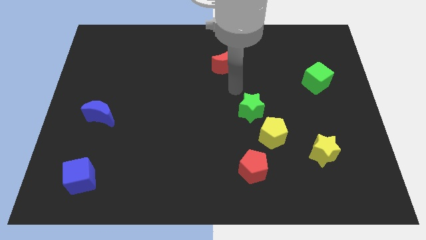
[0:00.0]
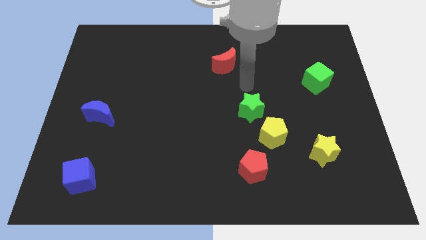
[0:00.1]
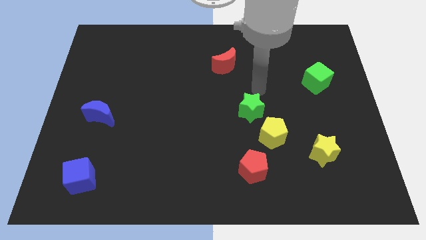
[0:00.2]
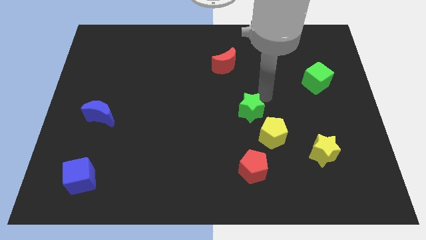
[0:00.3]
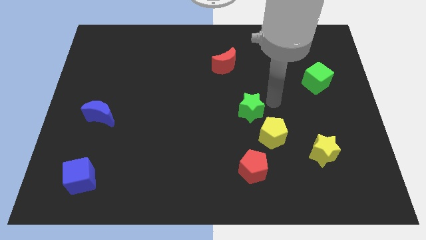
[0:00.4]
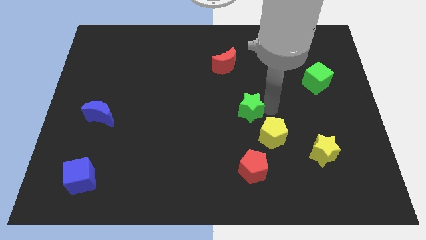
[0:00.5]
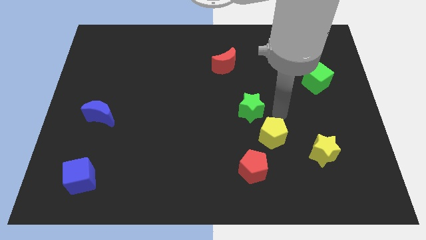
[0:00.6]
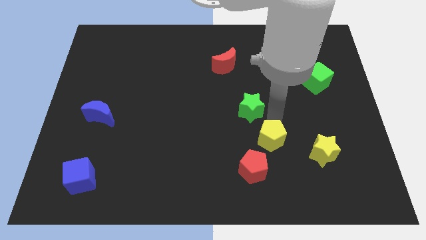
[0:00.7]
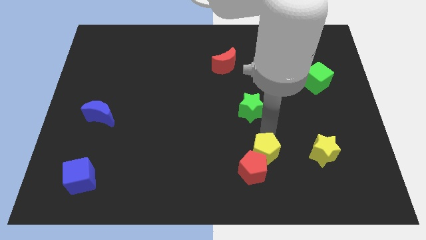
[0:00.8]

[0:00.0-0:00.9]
pull the green star apart from the yellow pentagon

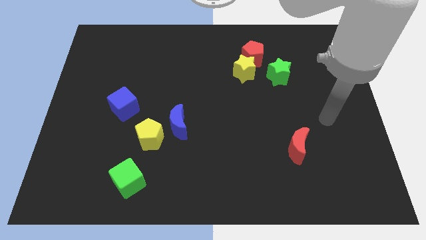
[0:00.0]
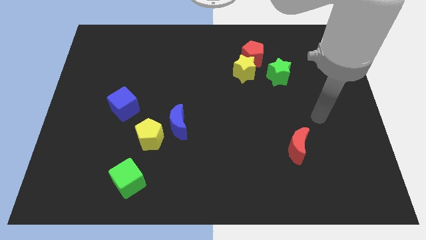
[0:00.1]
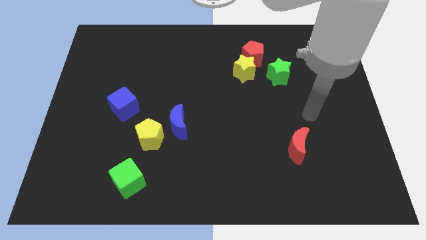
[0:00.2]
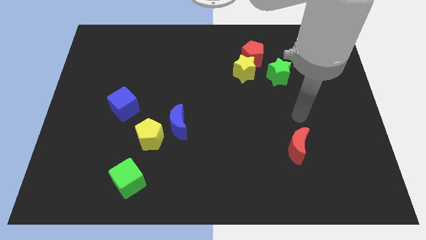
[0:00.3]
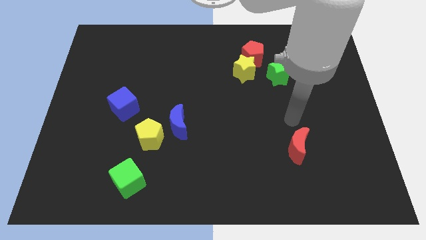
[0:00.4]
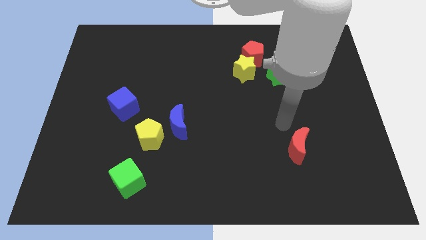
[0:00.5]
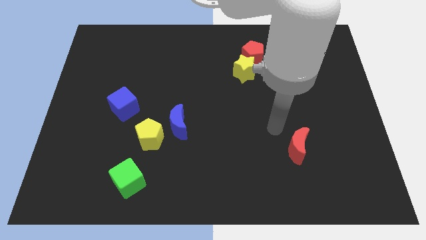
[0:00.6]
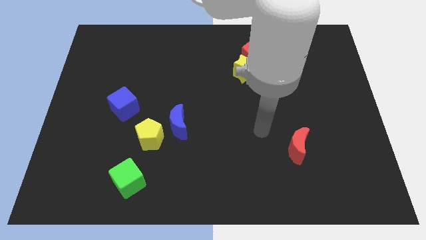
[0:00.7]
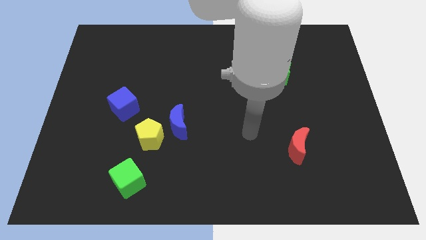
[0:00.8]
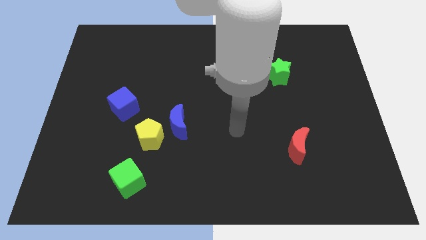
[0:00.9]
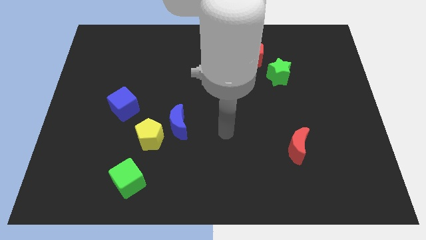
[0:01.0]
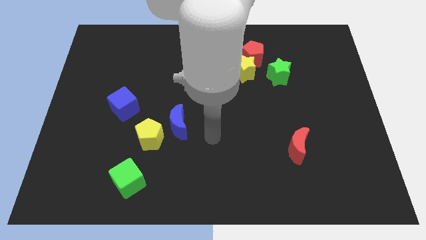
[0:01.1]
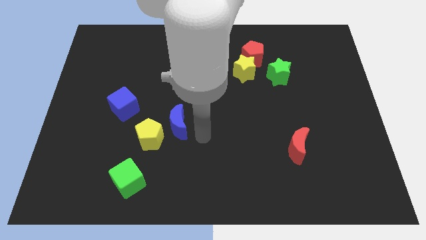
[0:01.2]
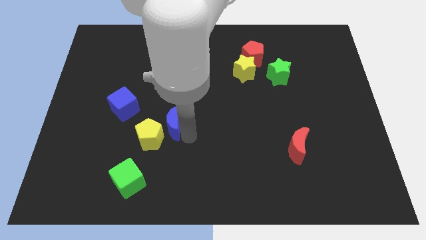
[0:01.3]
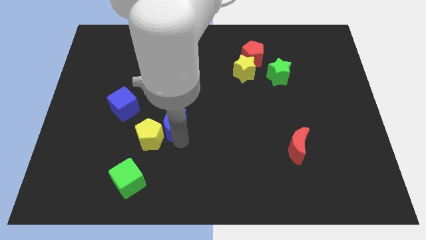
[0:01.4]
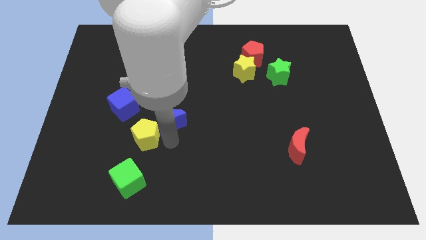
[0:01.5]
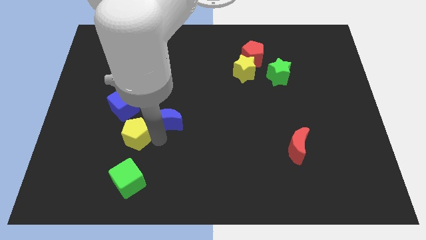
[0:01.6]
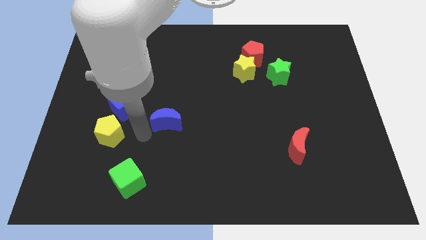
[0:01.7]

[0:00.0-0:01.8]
pull the blue moon apart from the yellow pentagon

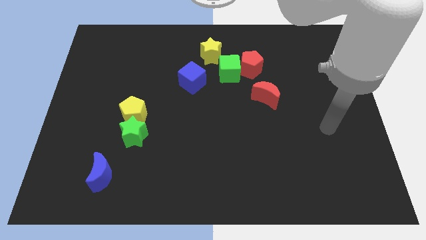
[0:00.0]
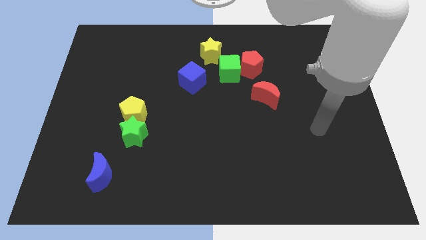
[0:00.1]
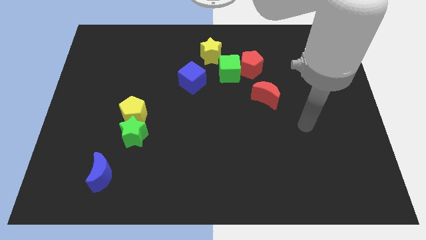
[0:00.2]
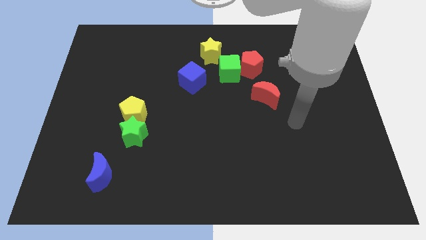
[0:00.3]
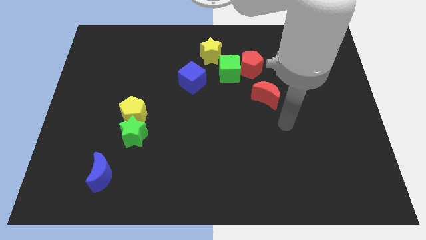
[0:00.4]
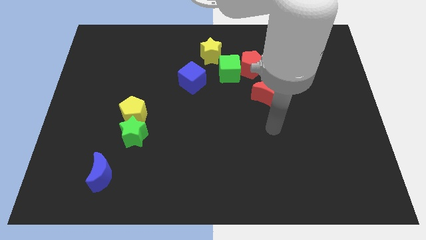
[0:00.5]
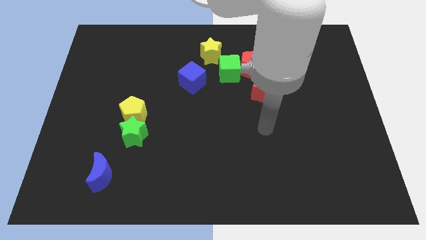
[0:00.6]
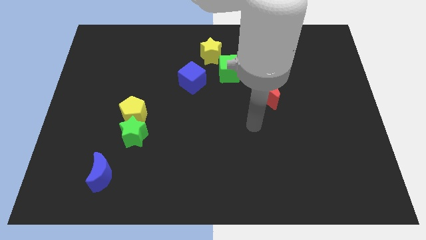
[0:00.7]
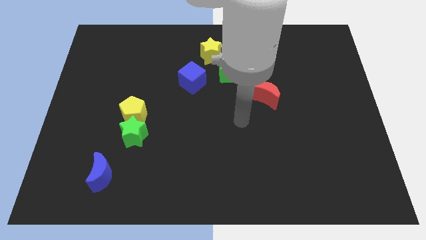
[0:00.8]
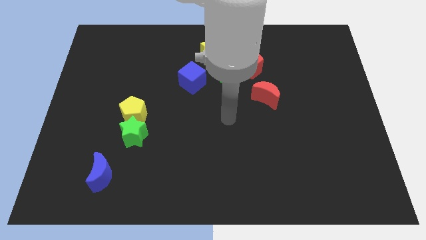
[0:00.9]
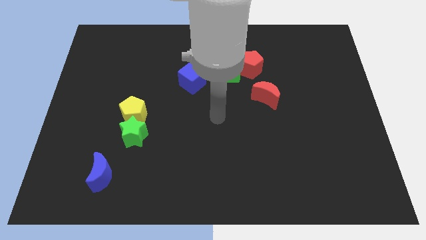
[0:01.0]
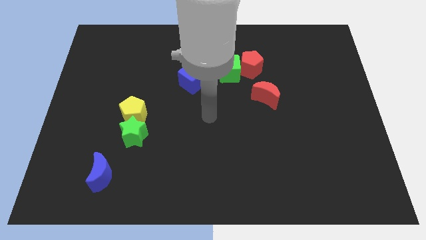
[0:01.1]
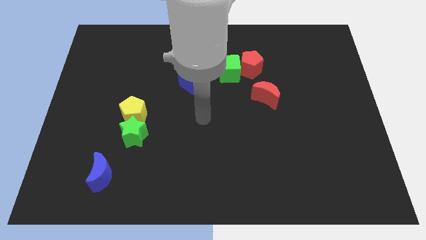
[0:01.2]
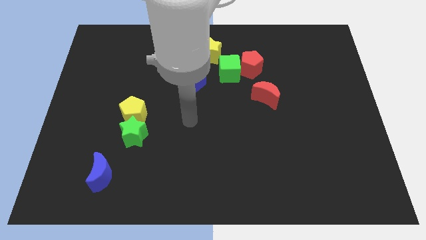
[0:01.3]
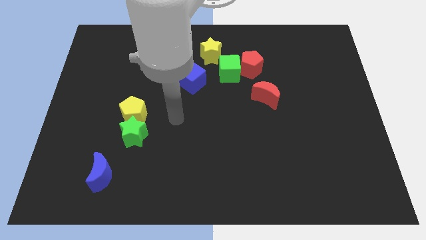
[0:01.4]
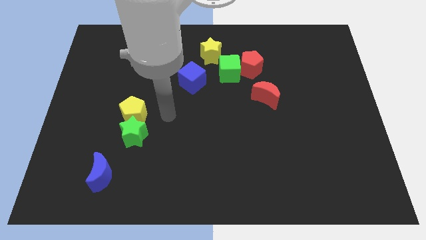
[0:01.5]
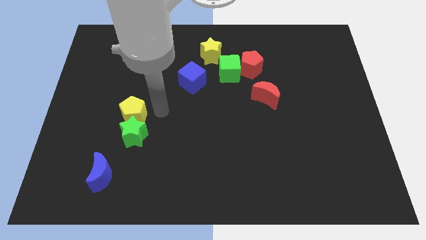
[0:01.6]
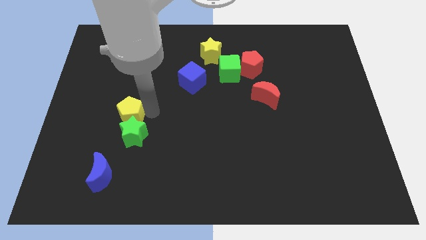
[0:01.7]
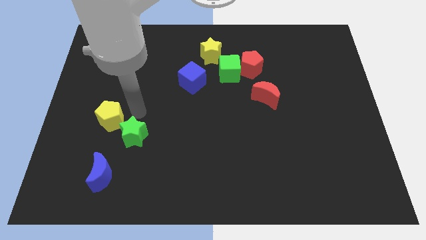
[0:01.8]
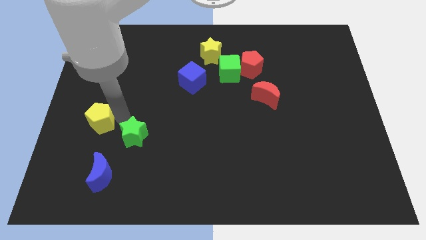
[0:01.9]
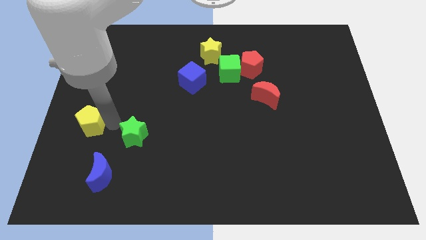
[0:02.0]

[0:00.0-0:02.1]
move the green star away from the yellow pentagon

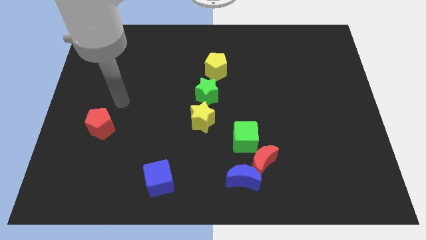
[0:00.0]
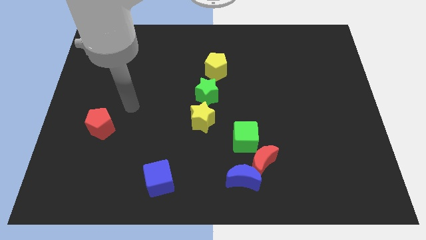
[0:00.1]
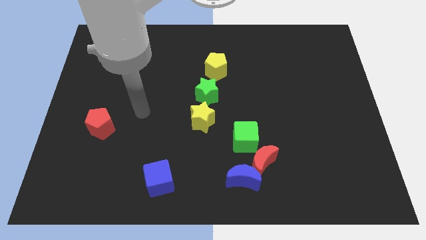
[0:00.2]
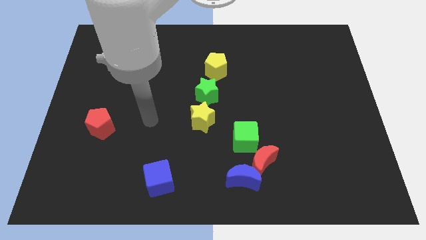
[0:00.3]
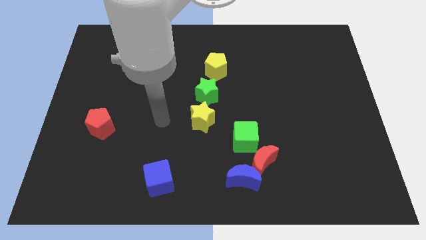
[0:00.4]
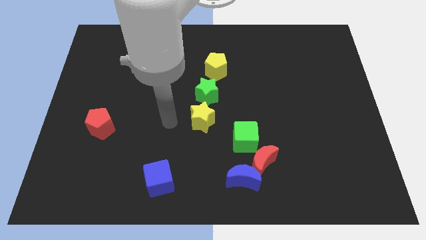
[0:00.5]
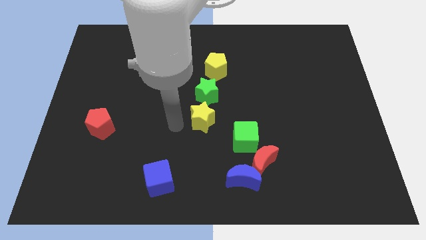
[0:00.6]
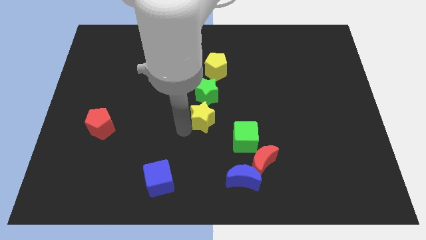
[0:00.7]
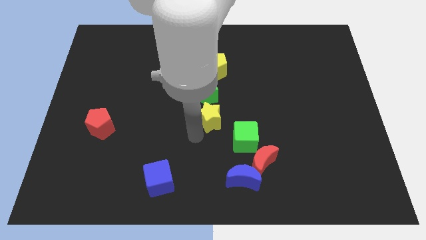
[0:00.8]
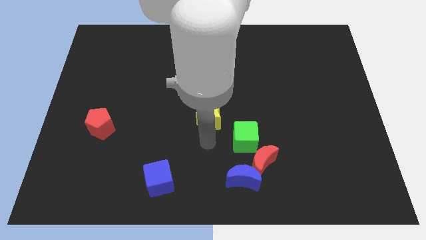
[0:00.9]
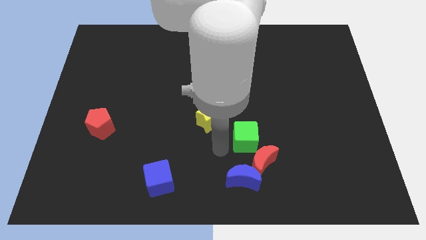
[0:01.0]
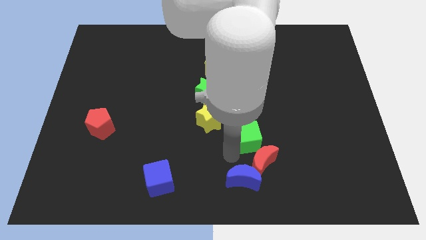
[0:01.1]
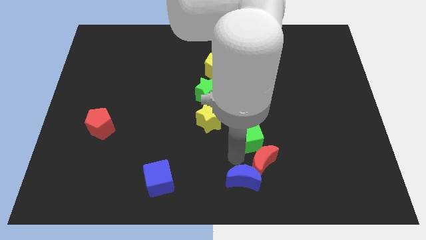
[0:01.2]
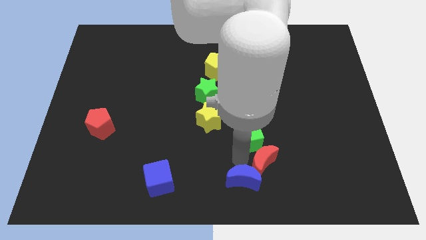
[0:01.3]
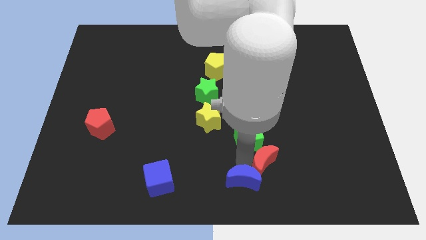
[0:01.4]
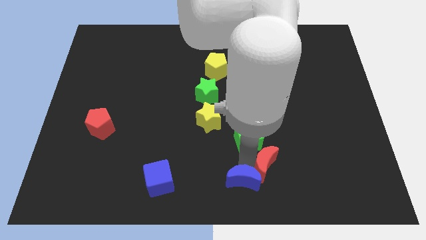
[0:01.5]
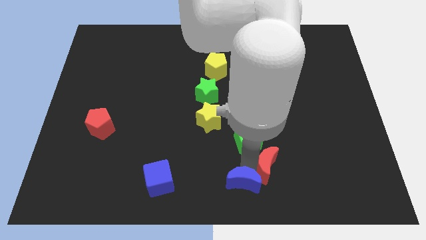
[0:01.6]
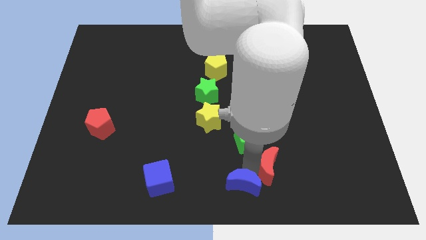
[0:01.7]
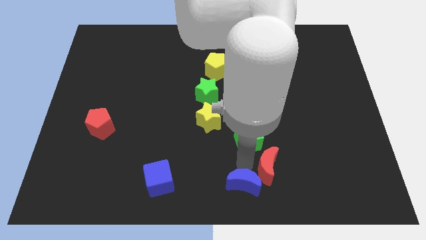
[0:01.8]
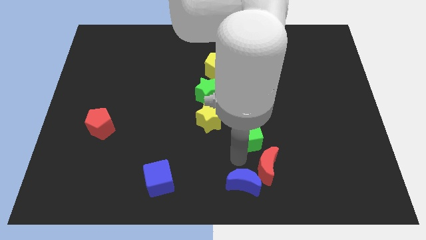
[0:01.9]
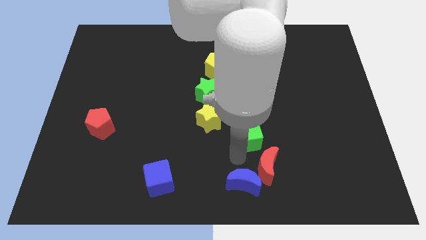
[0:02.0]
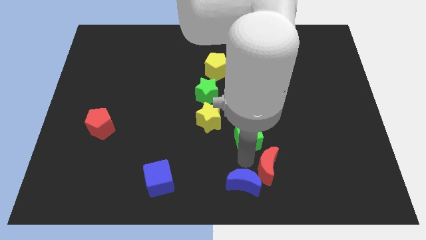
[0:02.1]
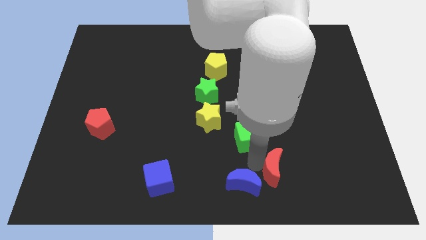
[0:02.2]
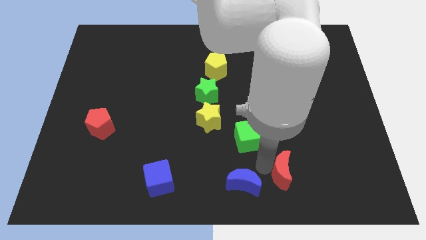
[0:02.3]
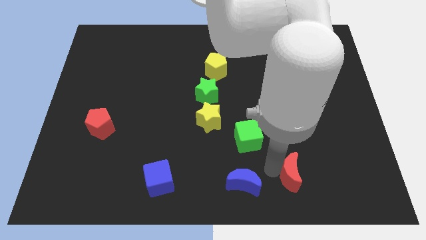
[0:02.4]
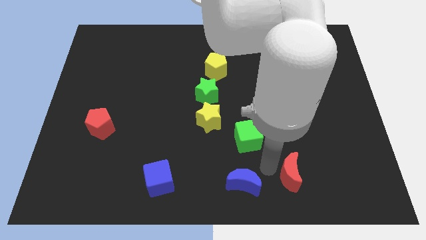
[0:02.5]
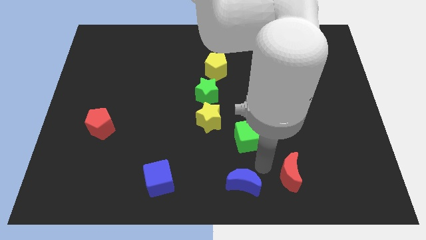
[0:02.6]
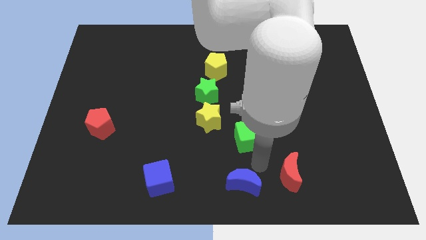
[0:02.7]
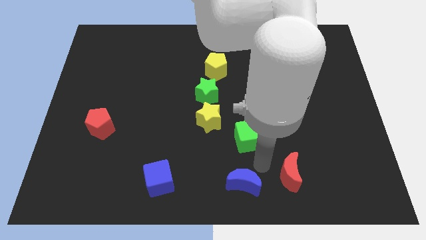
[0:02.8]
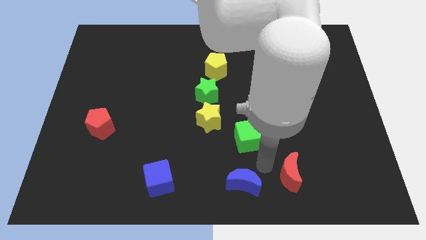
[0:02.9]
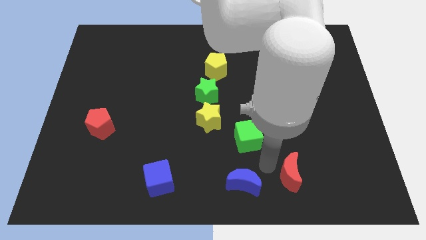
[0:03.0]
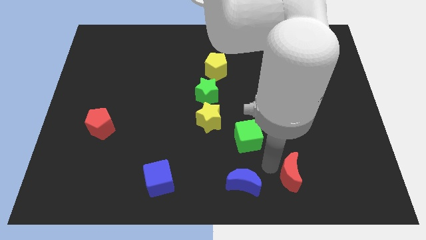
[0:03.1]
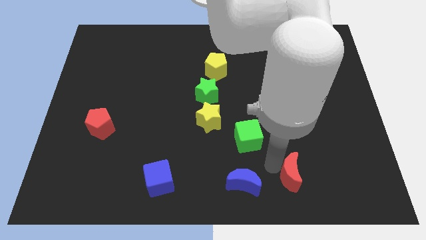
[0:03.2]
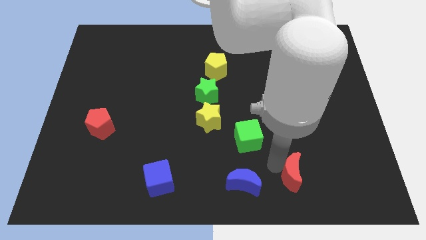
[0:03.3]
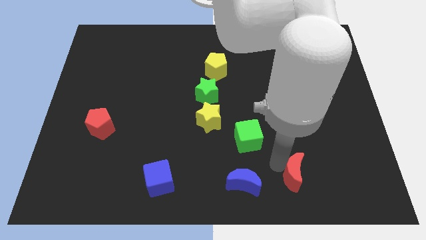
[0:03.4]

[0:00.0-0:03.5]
move the red moon away from the blue moon and green cube

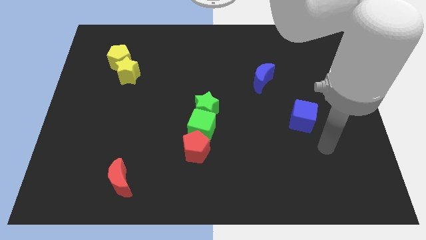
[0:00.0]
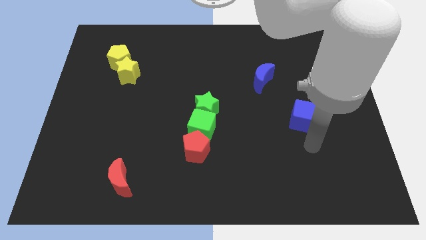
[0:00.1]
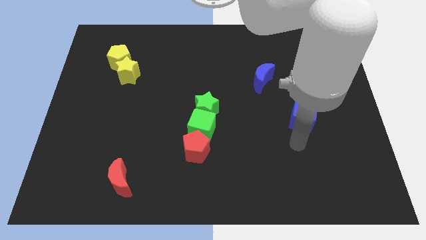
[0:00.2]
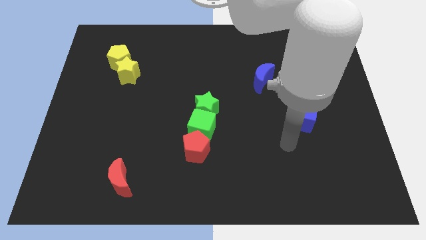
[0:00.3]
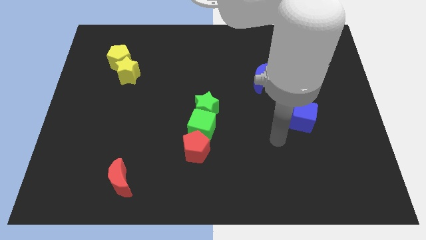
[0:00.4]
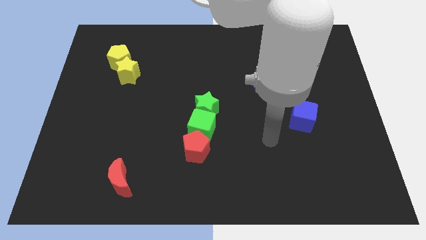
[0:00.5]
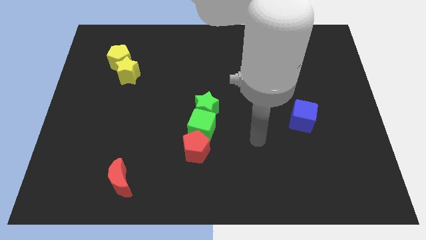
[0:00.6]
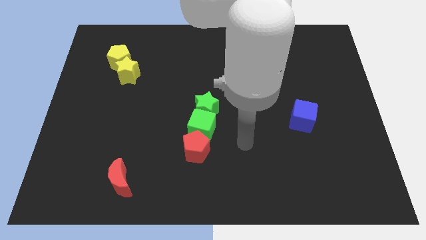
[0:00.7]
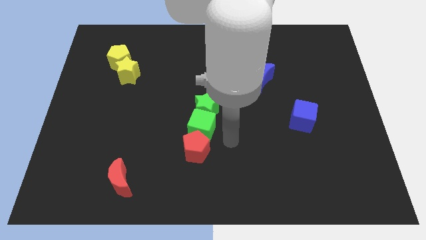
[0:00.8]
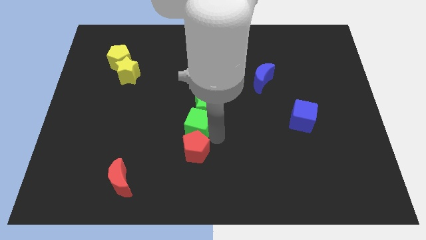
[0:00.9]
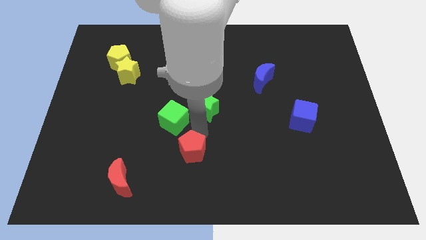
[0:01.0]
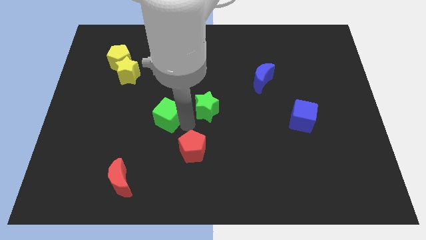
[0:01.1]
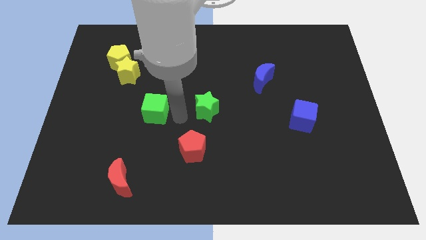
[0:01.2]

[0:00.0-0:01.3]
move the green star away from the green cube
